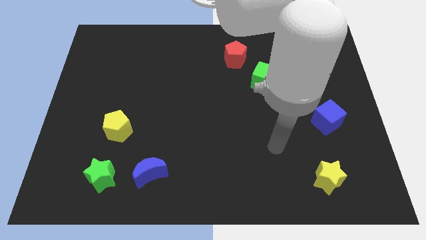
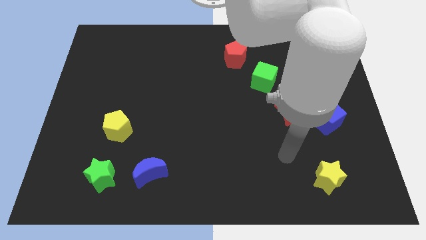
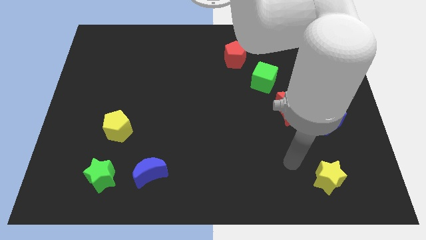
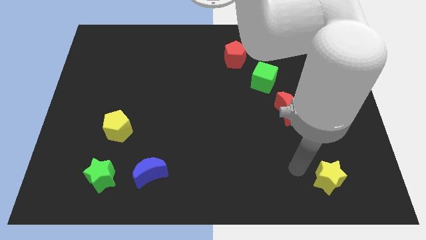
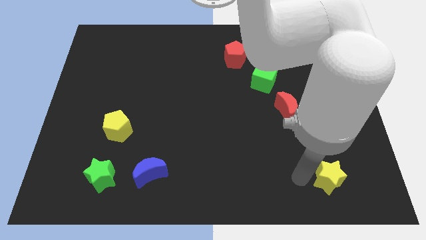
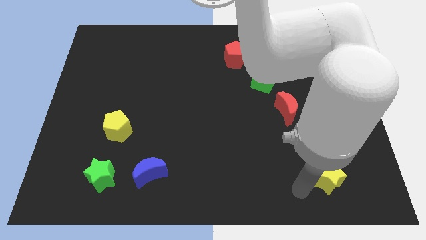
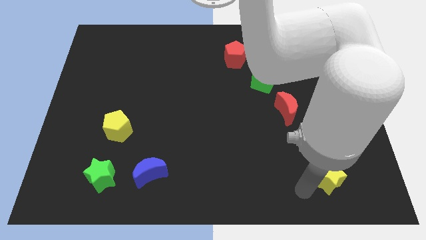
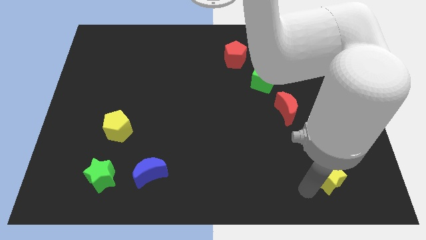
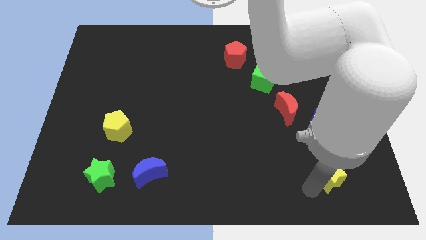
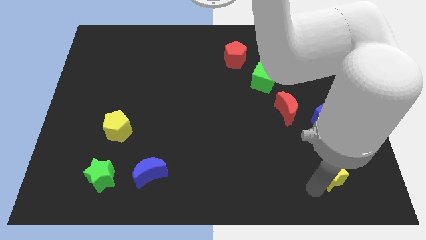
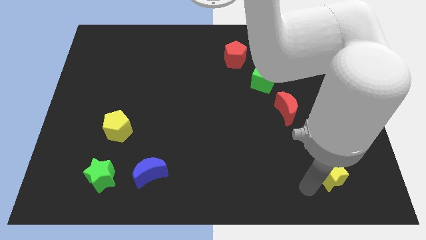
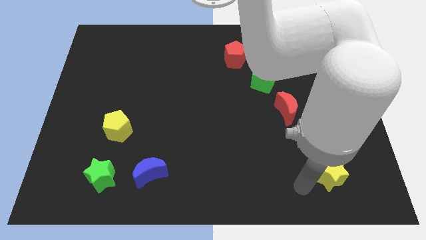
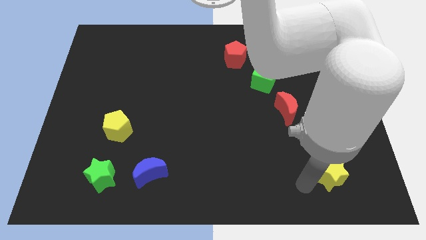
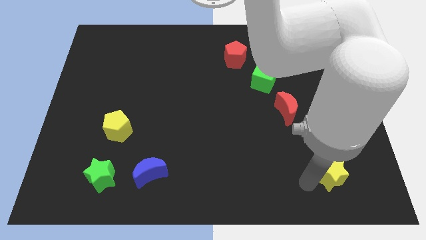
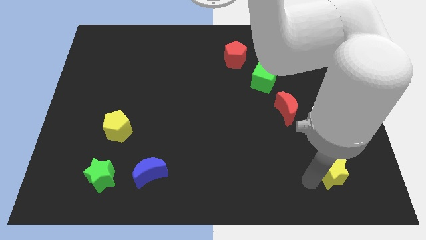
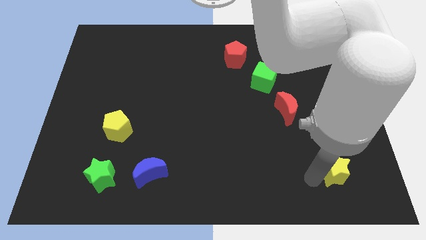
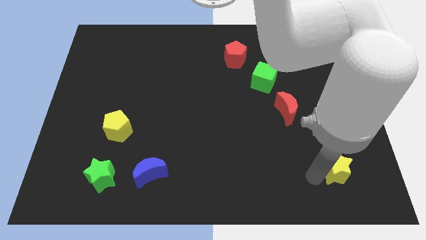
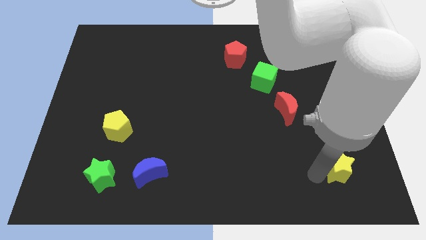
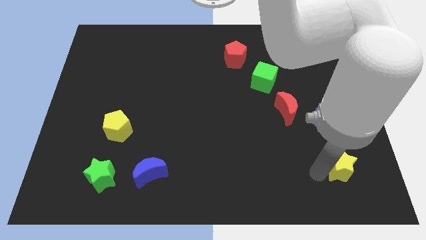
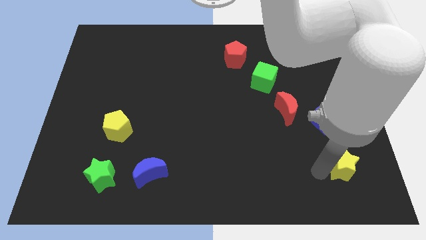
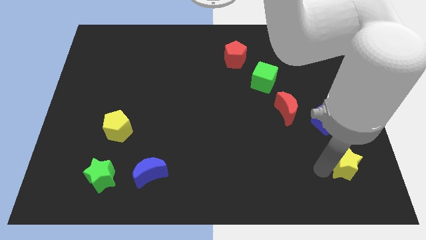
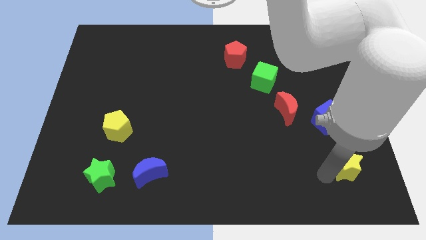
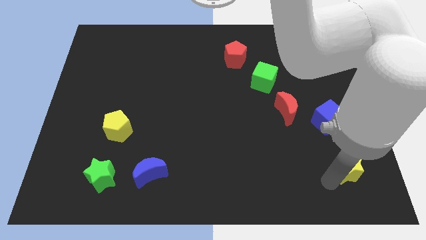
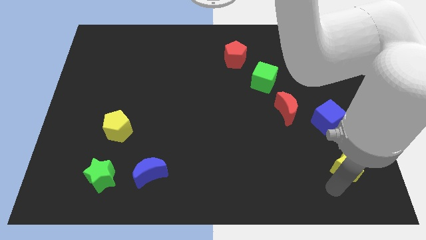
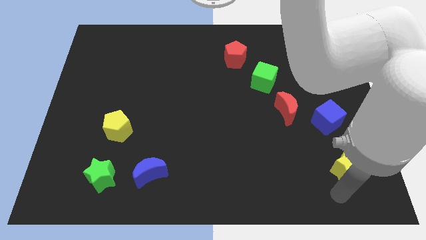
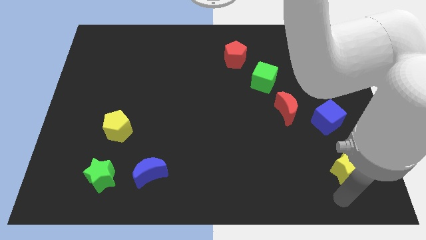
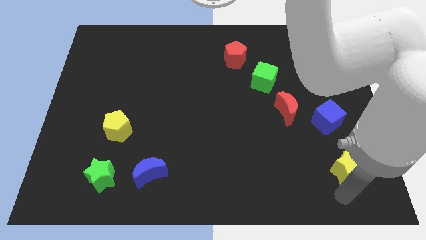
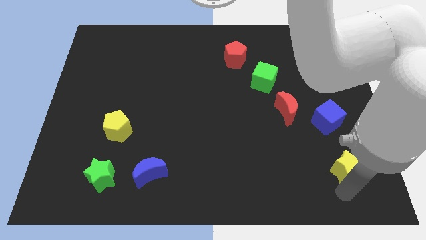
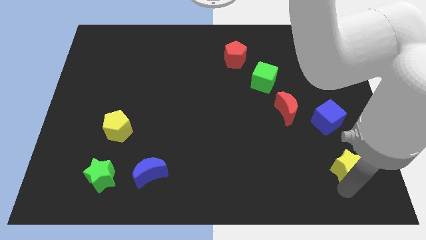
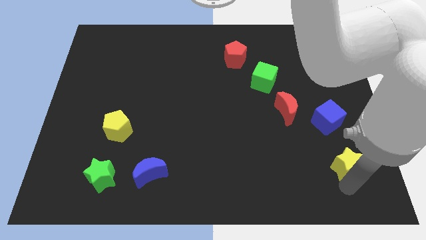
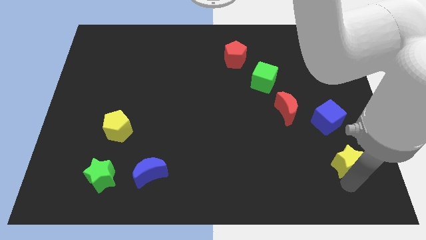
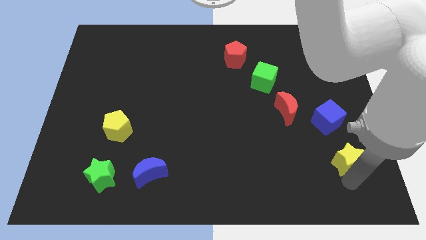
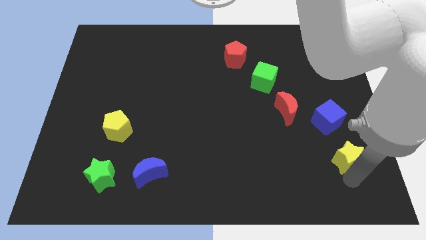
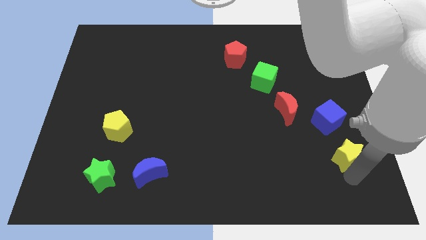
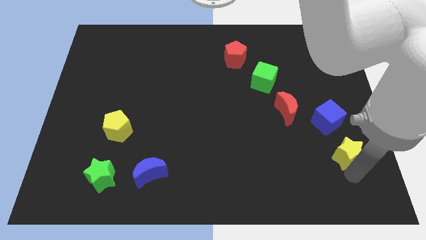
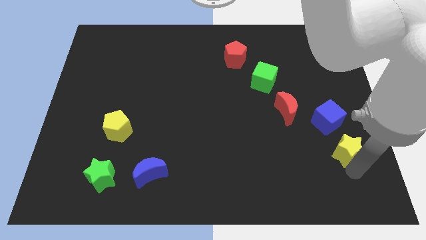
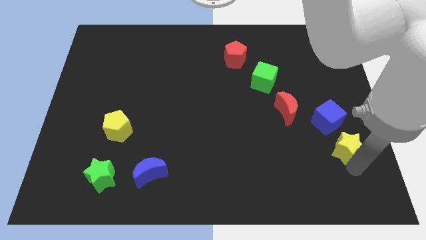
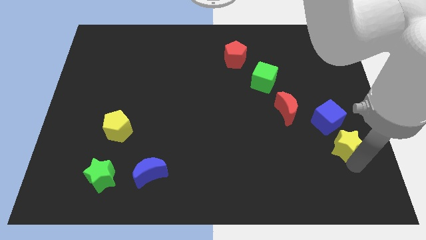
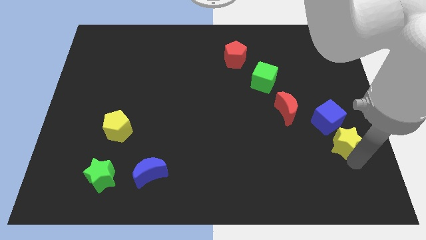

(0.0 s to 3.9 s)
slightly move the yellow star upwards

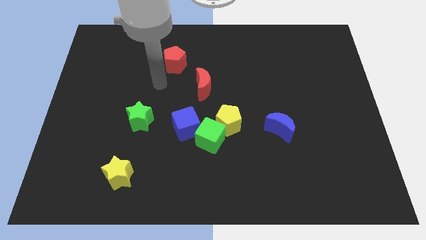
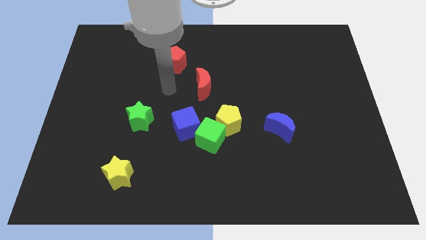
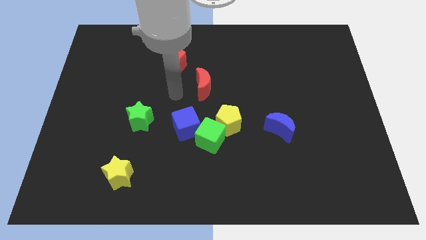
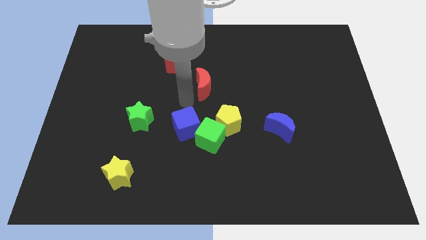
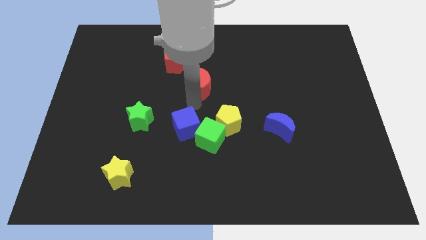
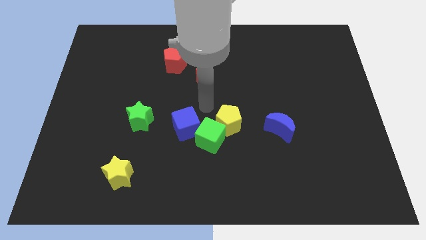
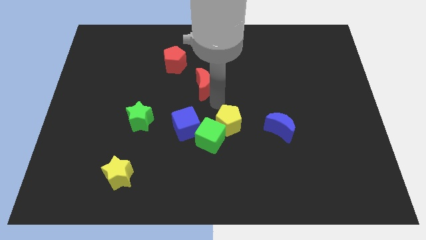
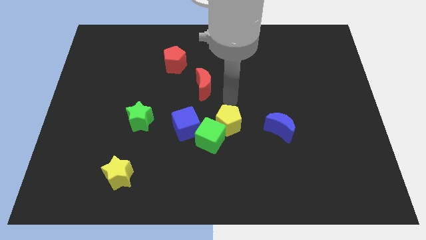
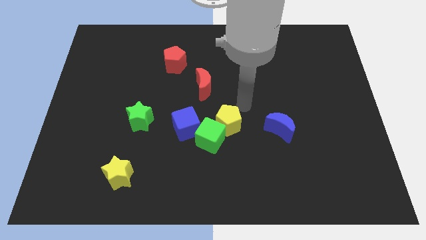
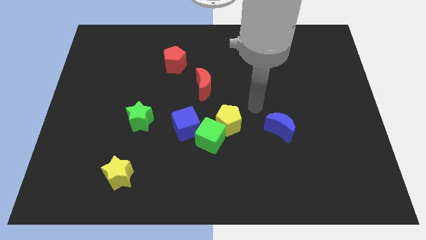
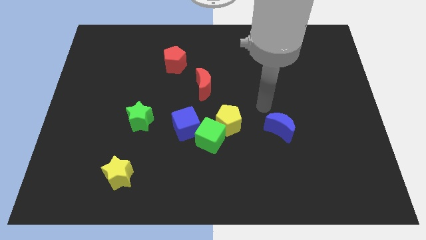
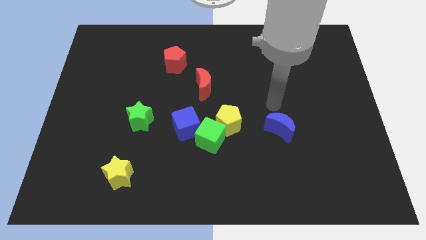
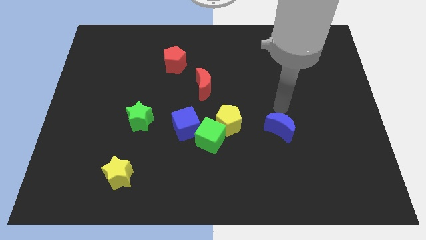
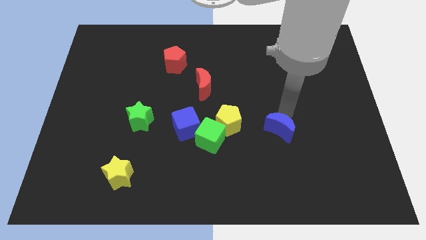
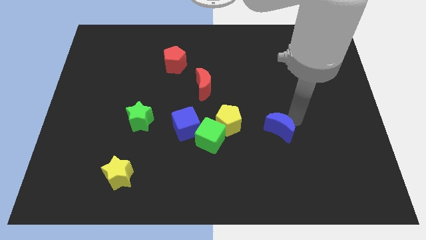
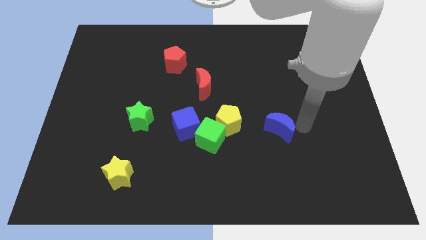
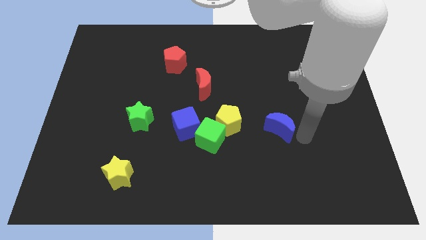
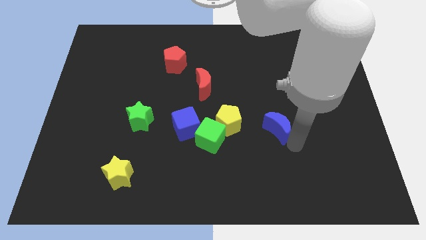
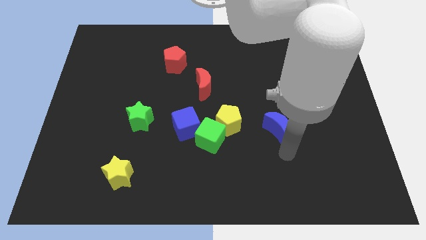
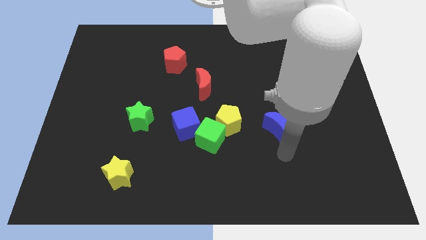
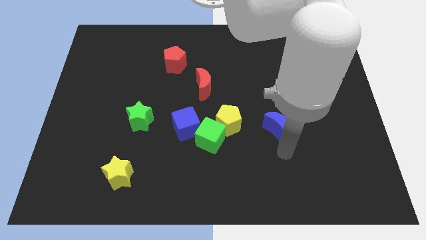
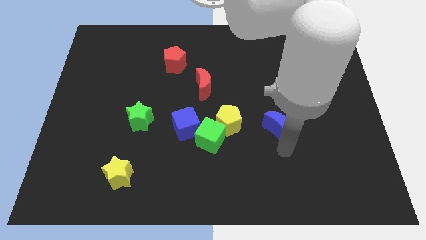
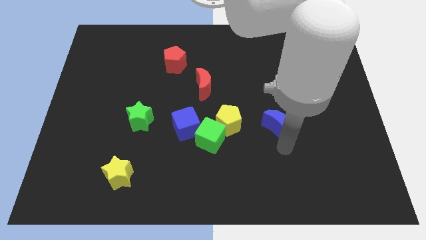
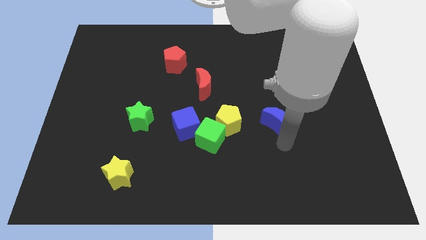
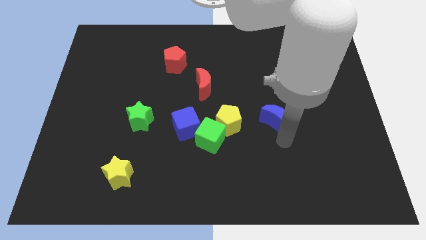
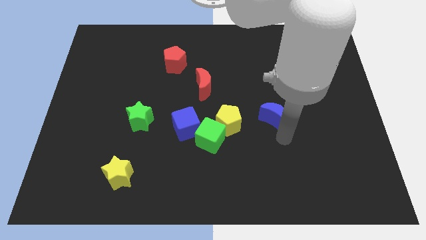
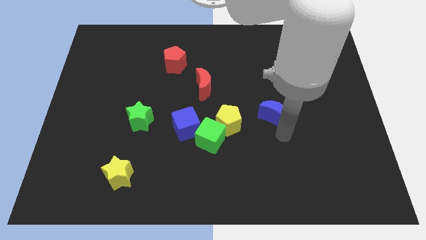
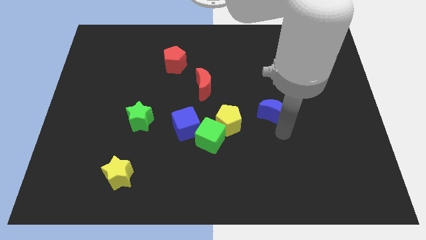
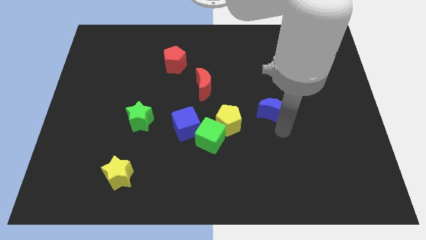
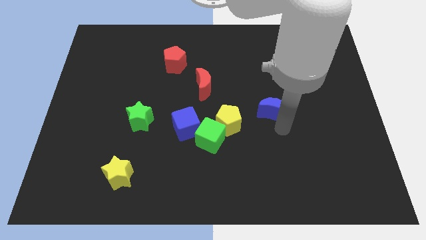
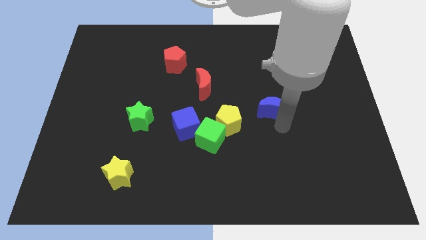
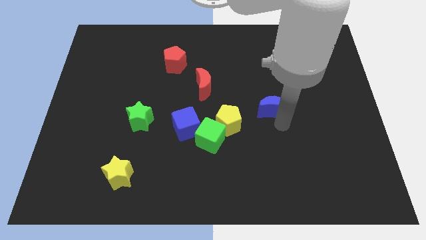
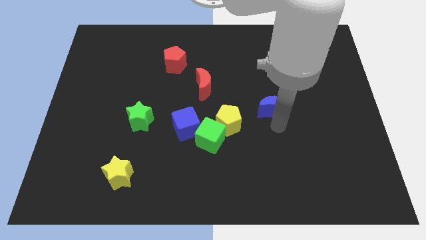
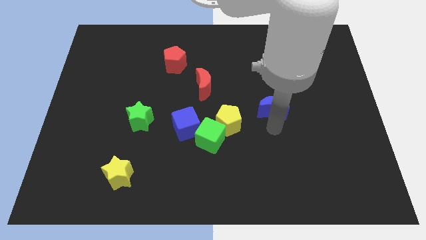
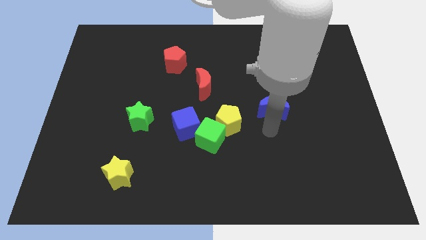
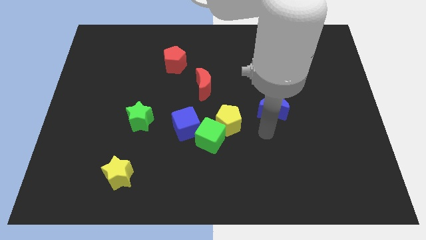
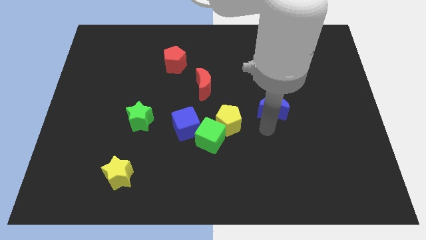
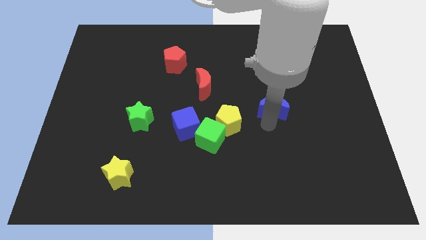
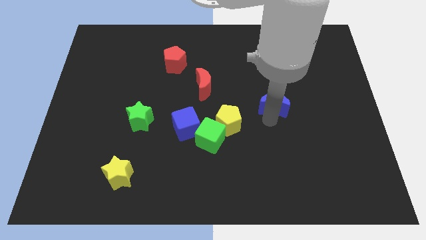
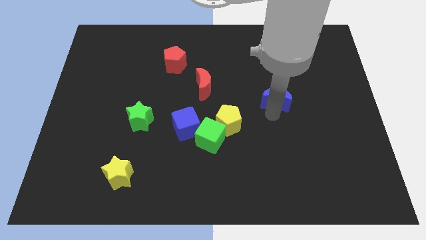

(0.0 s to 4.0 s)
slide the blue moon somewhat up

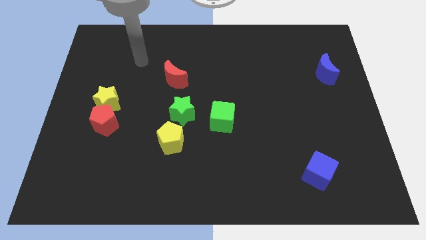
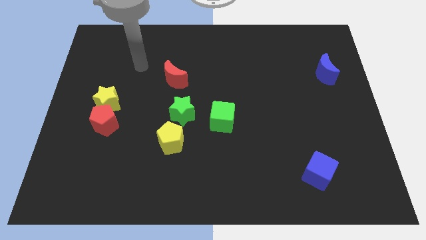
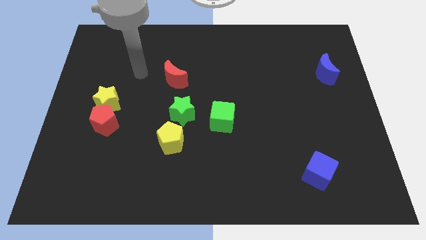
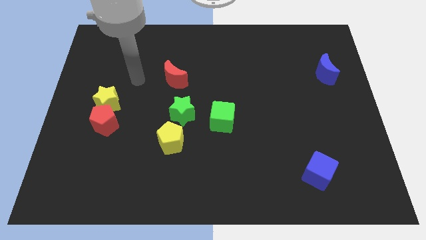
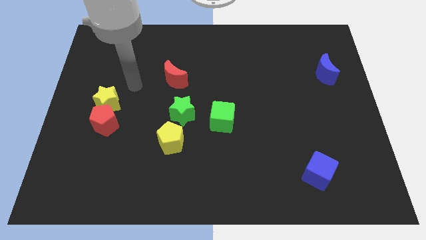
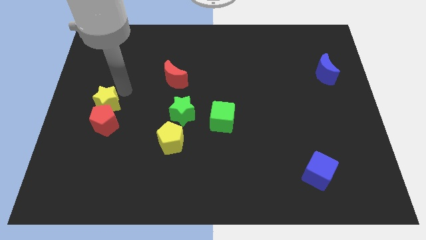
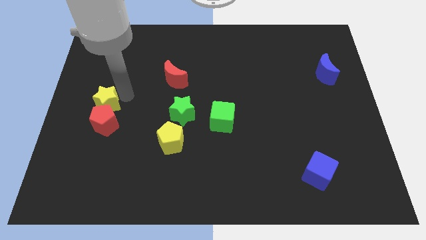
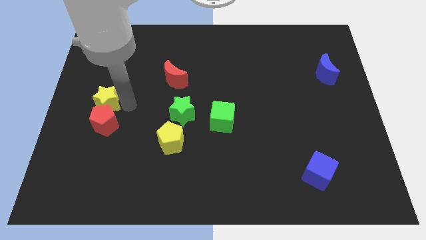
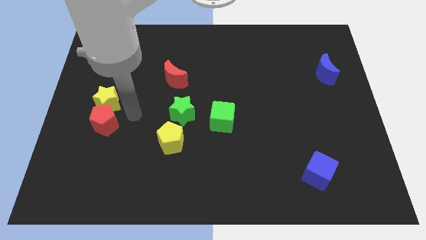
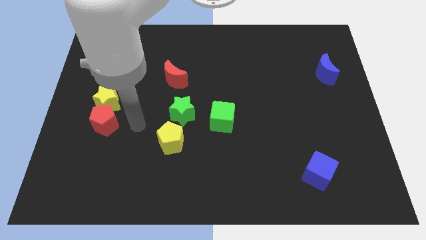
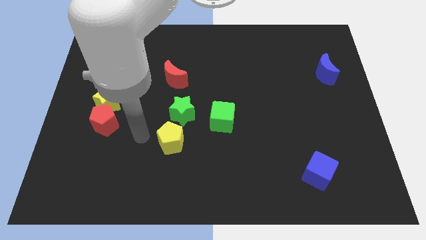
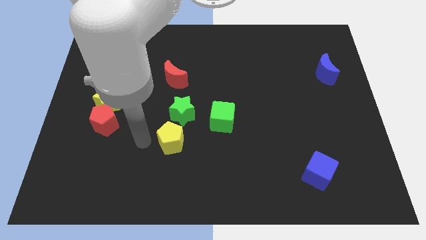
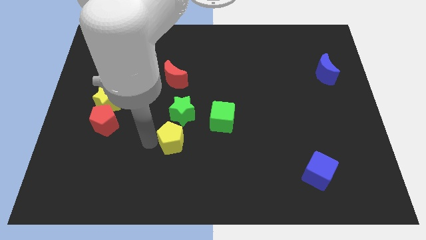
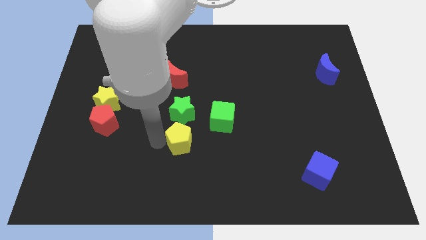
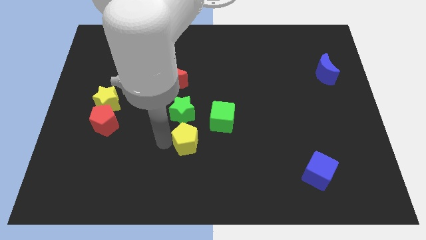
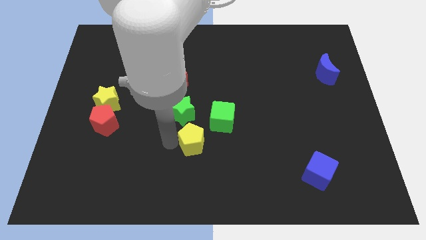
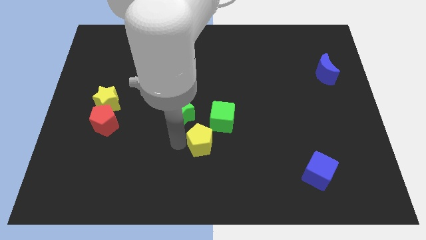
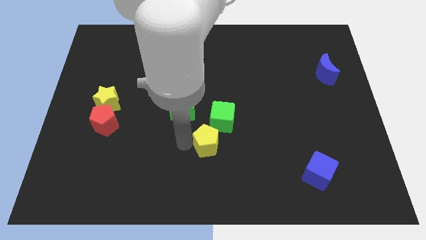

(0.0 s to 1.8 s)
slide the yellow pentagon a little right
